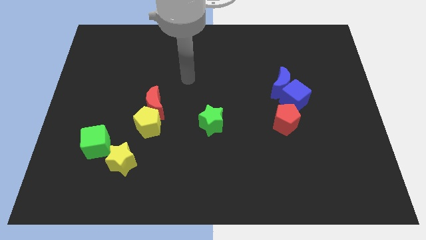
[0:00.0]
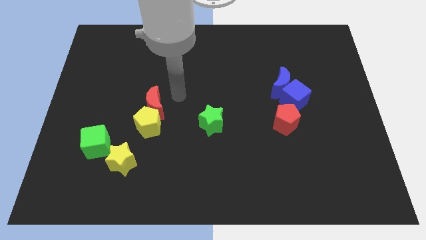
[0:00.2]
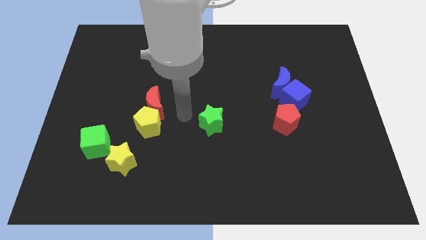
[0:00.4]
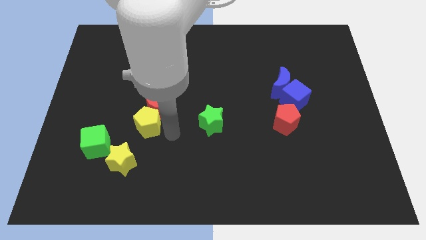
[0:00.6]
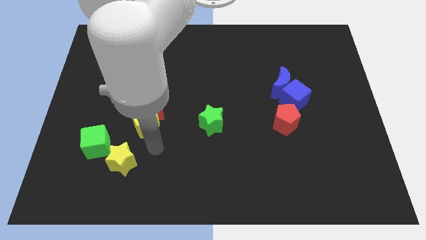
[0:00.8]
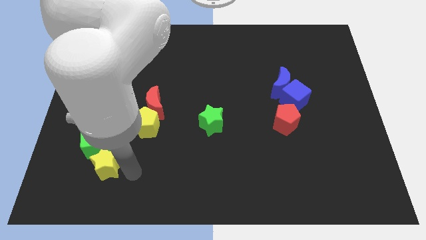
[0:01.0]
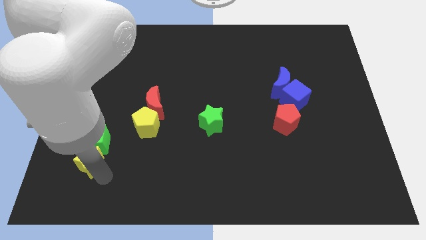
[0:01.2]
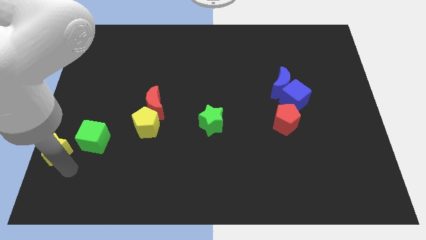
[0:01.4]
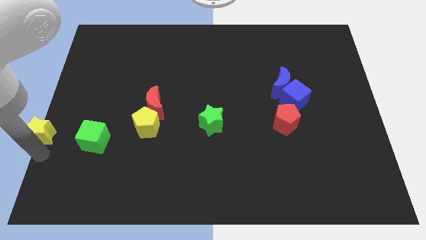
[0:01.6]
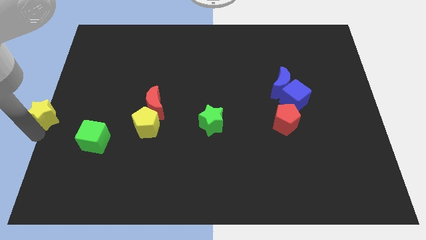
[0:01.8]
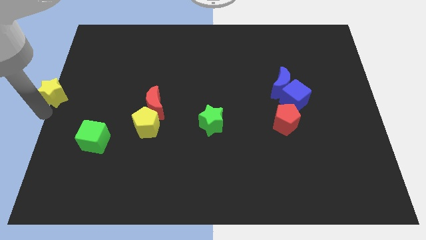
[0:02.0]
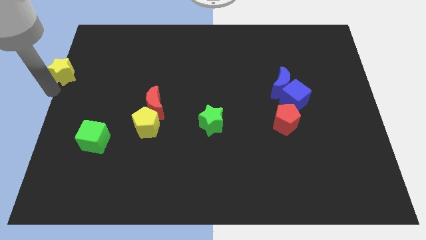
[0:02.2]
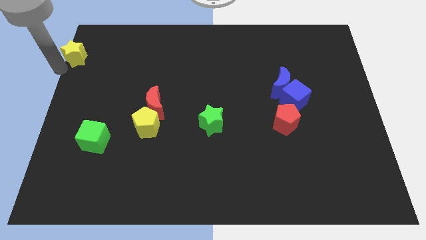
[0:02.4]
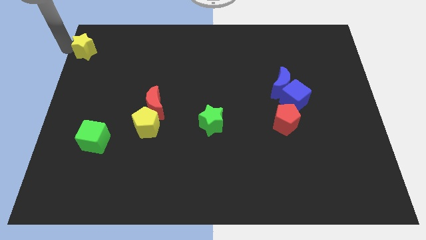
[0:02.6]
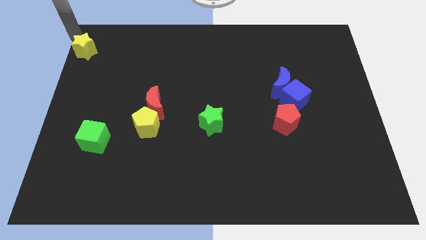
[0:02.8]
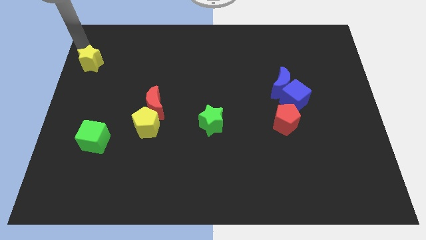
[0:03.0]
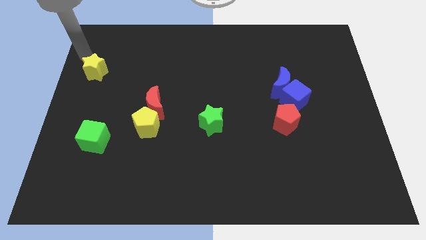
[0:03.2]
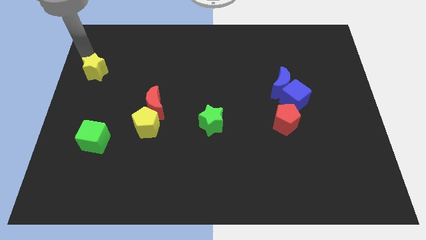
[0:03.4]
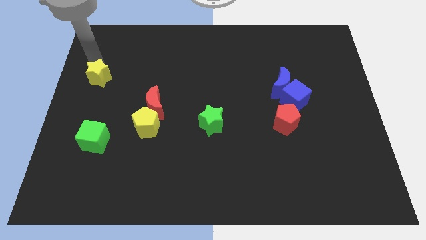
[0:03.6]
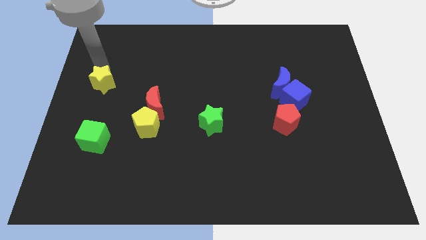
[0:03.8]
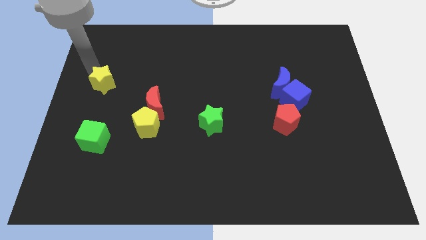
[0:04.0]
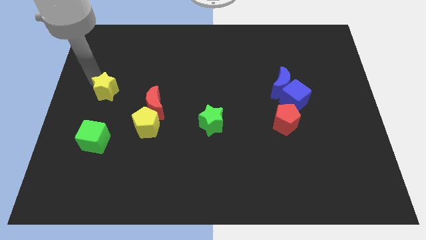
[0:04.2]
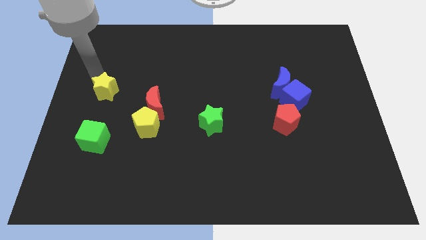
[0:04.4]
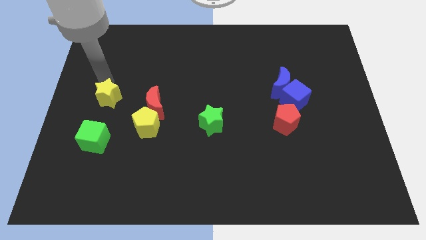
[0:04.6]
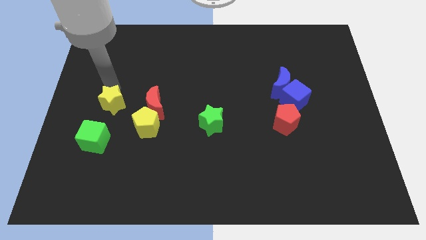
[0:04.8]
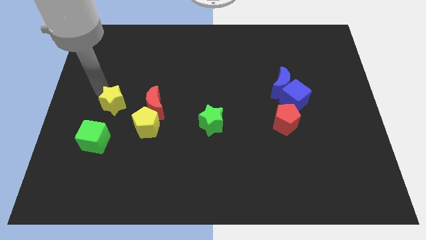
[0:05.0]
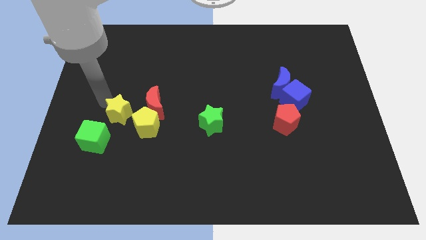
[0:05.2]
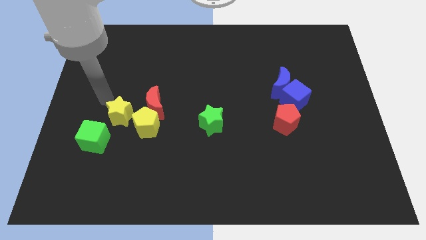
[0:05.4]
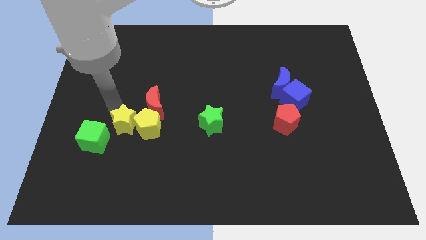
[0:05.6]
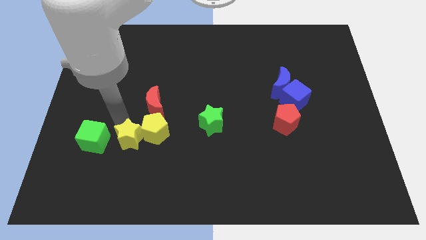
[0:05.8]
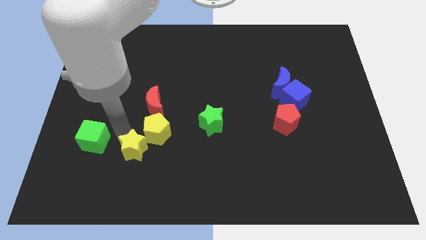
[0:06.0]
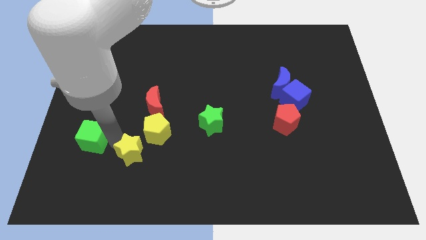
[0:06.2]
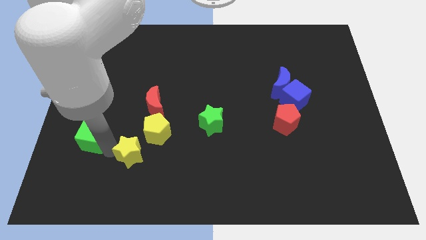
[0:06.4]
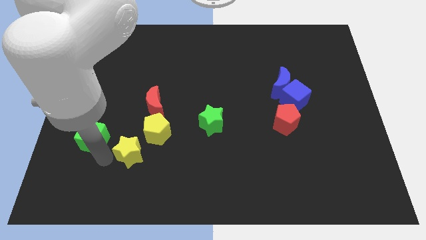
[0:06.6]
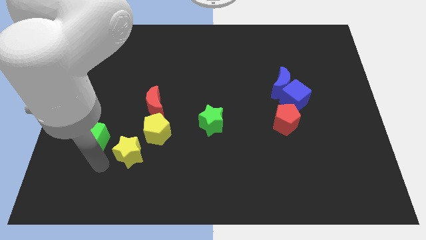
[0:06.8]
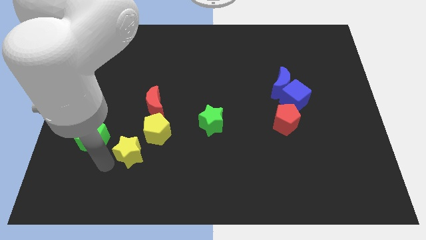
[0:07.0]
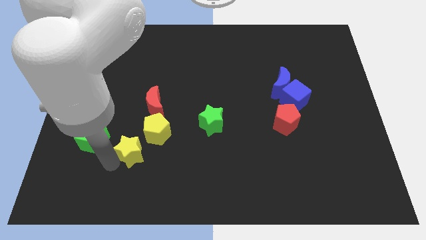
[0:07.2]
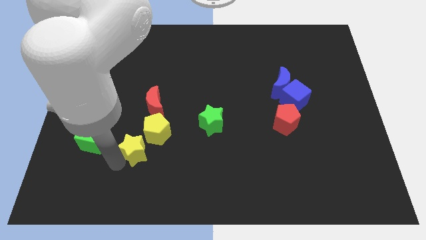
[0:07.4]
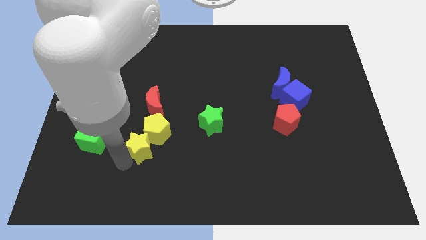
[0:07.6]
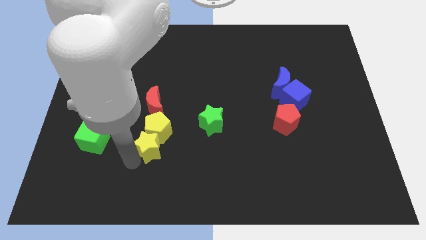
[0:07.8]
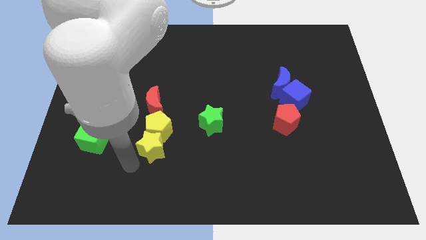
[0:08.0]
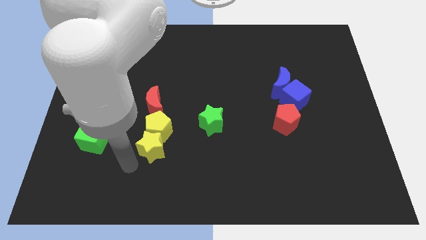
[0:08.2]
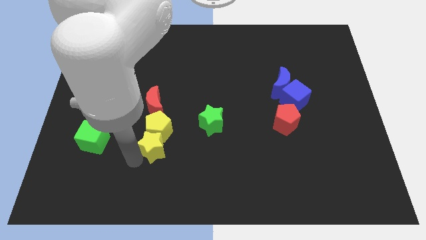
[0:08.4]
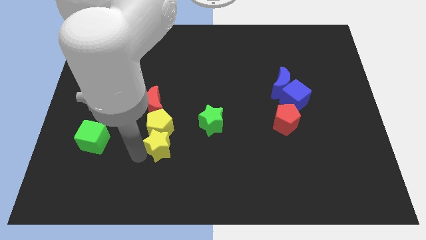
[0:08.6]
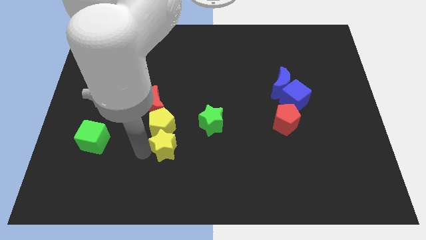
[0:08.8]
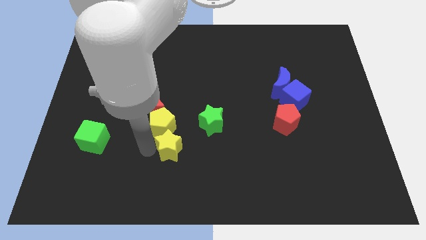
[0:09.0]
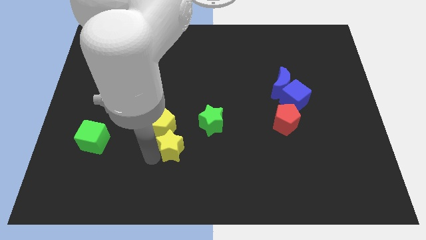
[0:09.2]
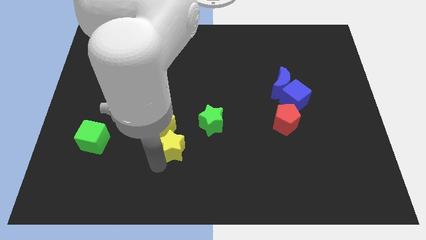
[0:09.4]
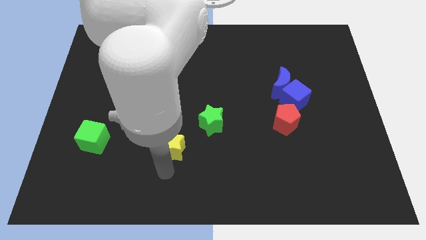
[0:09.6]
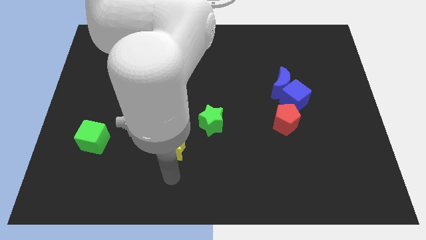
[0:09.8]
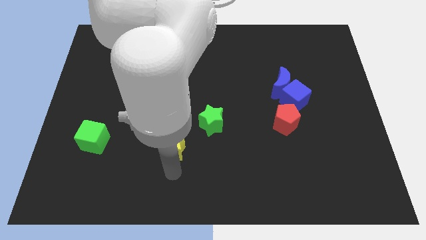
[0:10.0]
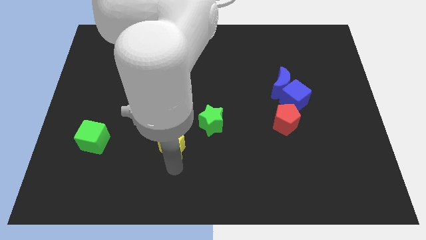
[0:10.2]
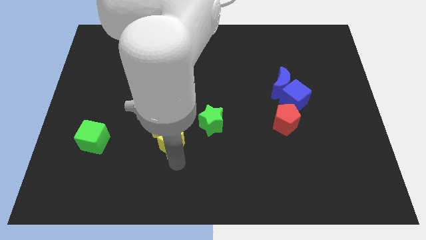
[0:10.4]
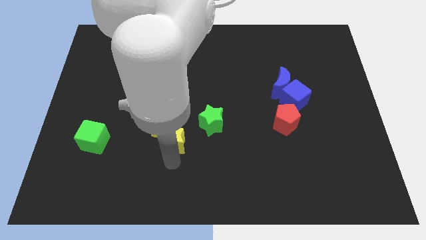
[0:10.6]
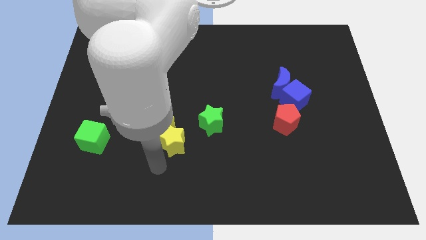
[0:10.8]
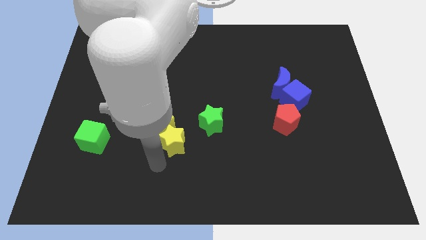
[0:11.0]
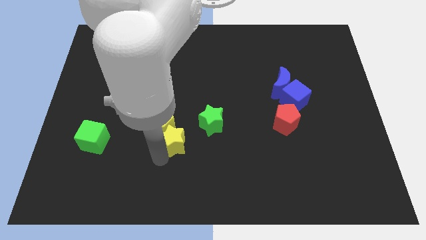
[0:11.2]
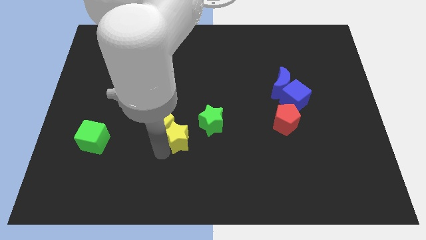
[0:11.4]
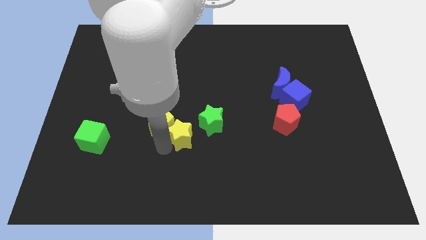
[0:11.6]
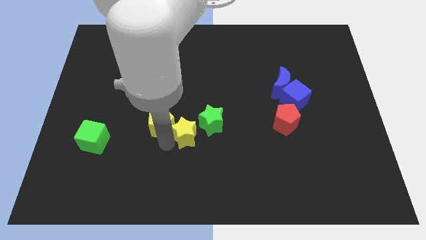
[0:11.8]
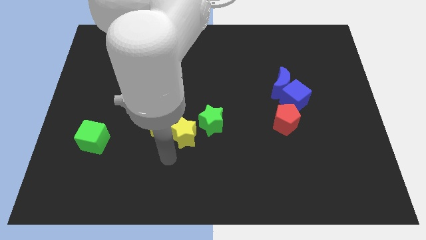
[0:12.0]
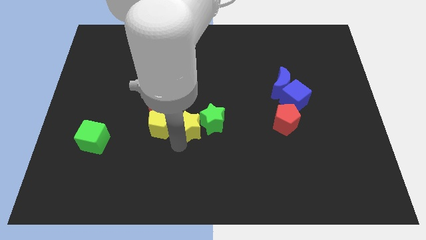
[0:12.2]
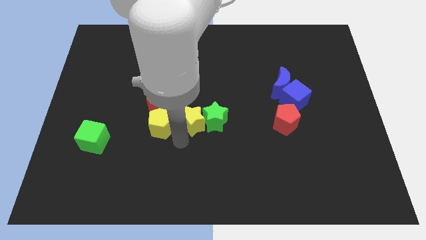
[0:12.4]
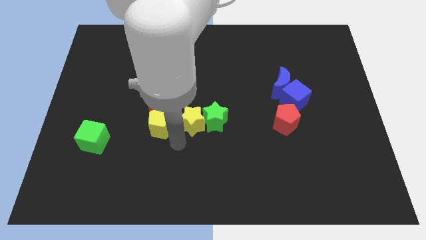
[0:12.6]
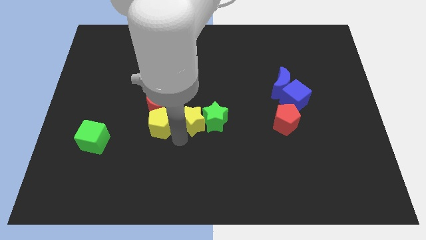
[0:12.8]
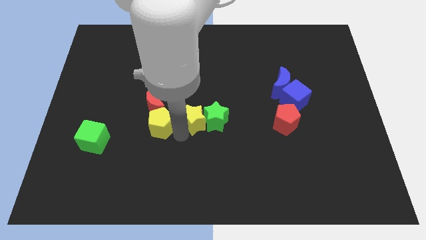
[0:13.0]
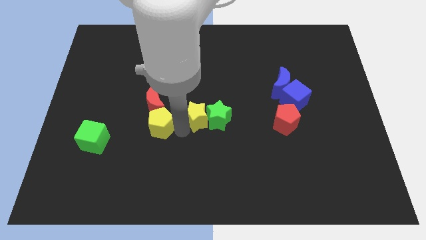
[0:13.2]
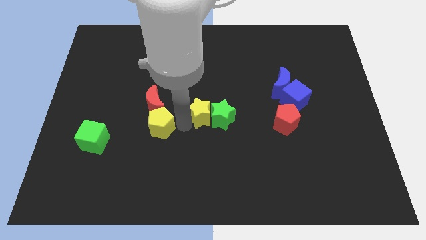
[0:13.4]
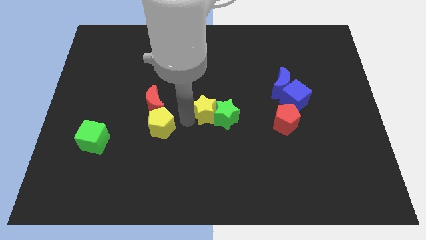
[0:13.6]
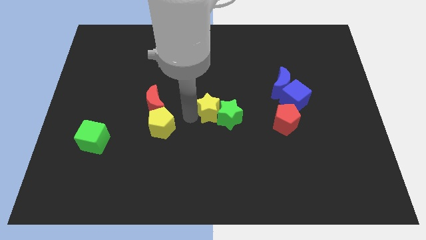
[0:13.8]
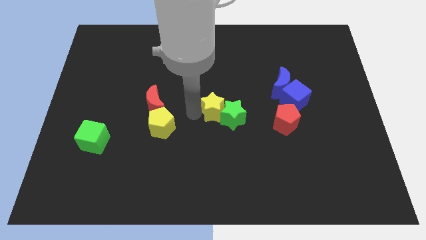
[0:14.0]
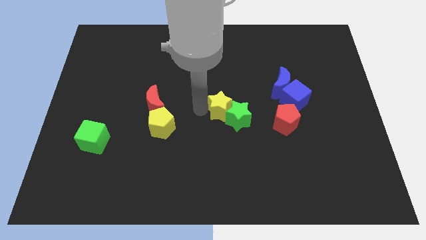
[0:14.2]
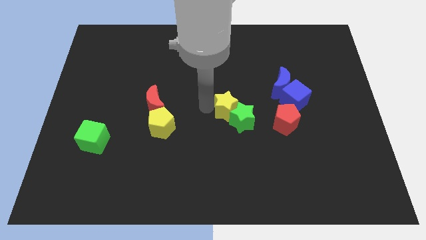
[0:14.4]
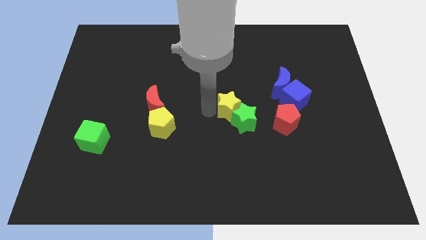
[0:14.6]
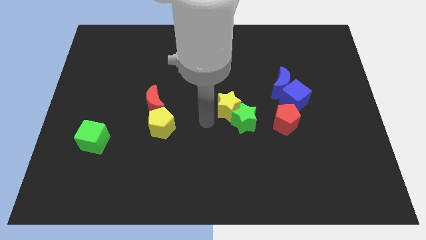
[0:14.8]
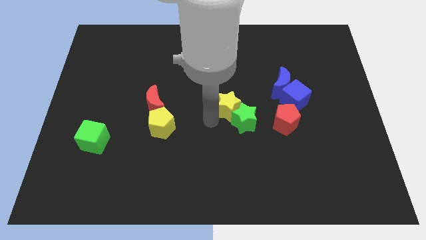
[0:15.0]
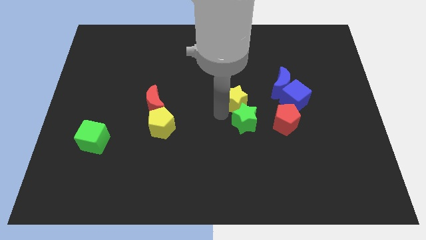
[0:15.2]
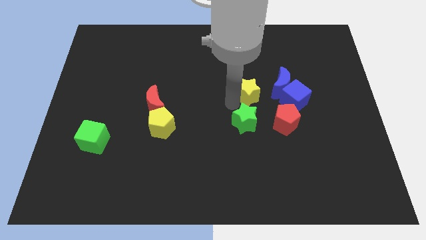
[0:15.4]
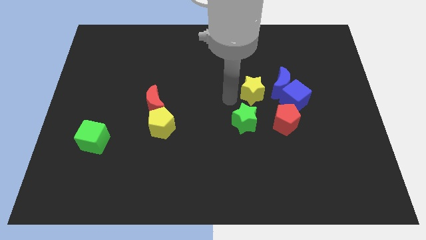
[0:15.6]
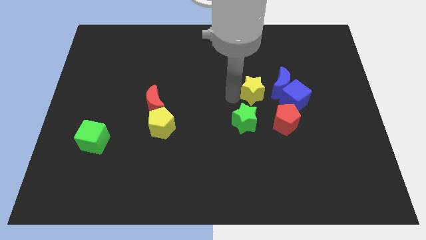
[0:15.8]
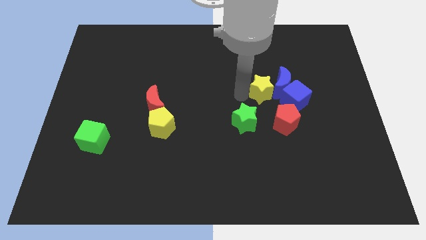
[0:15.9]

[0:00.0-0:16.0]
put the yellow star close to the blue moon

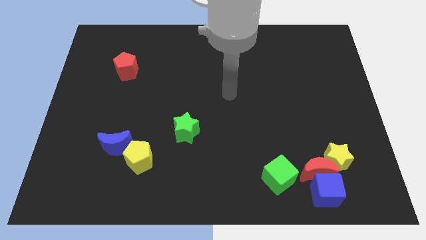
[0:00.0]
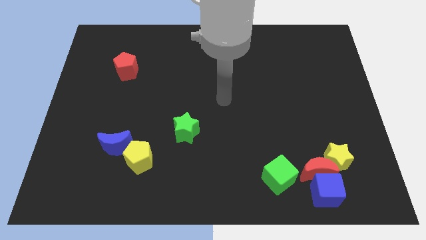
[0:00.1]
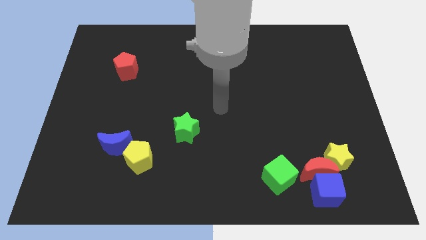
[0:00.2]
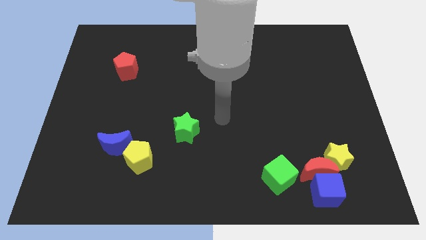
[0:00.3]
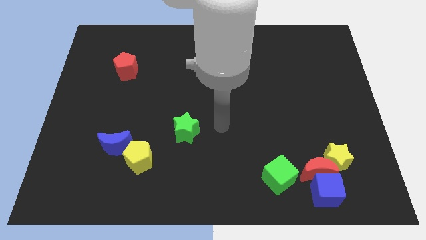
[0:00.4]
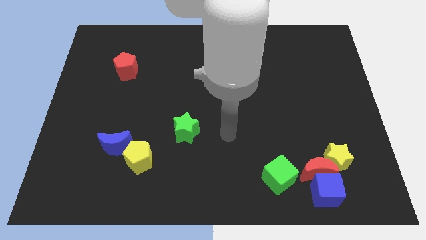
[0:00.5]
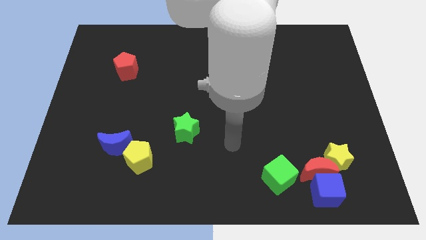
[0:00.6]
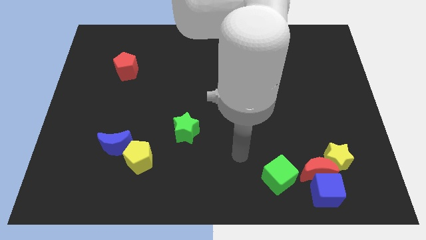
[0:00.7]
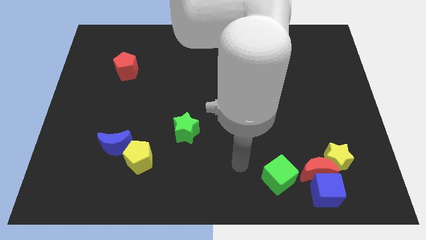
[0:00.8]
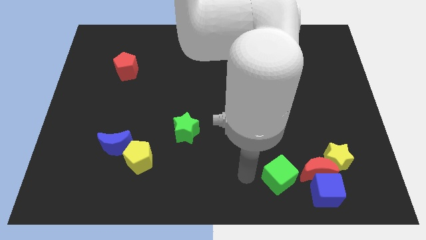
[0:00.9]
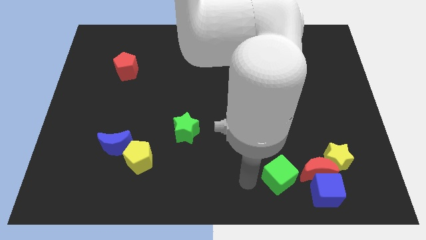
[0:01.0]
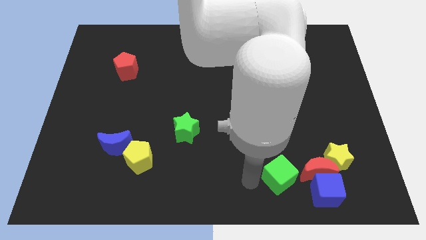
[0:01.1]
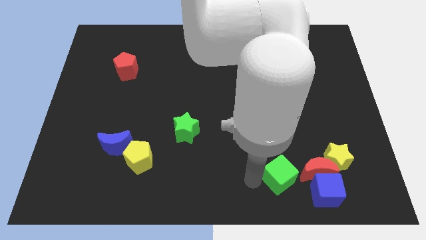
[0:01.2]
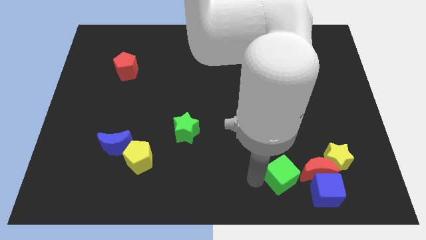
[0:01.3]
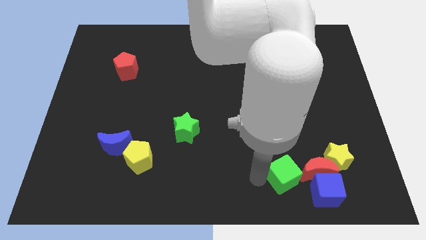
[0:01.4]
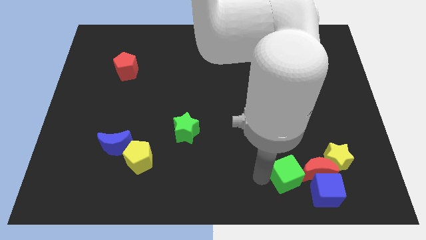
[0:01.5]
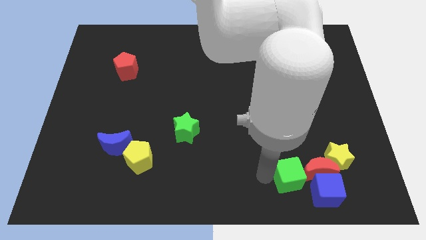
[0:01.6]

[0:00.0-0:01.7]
move the green cube to the red moon
